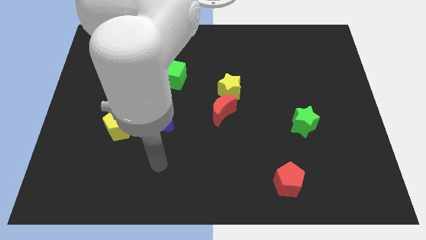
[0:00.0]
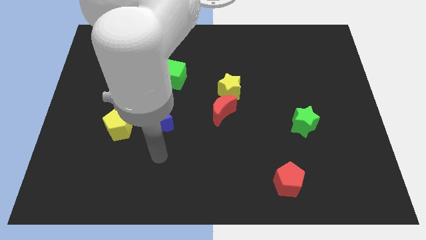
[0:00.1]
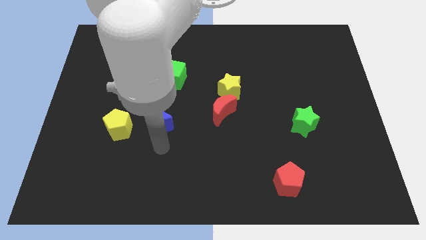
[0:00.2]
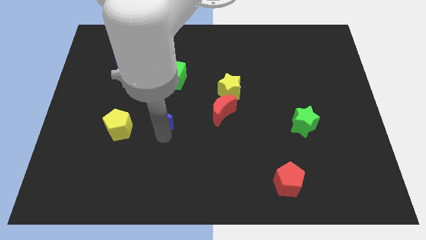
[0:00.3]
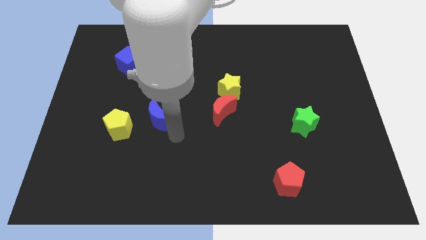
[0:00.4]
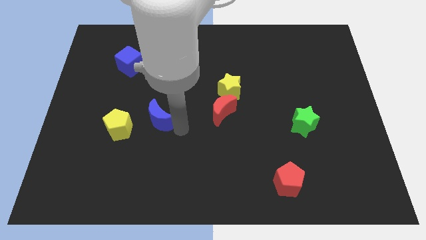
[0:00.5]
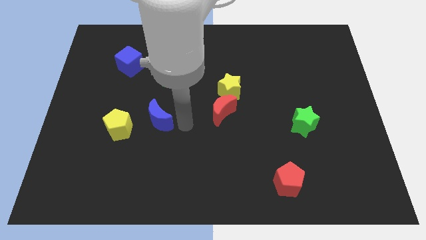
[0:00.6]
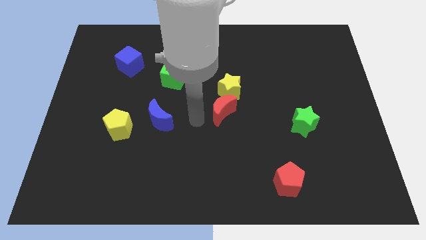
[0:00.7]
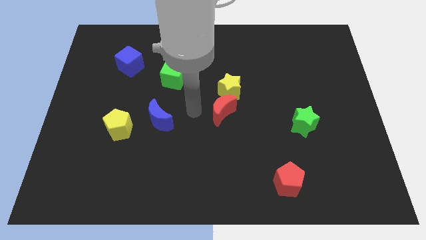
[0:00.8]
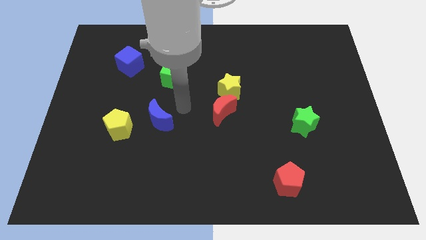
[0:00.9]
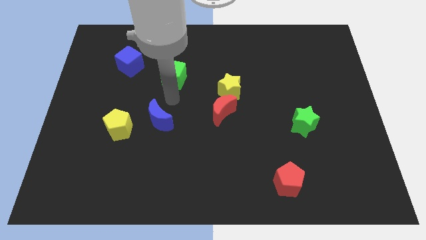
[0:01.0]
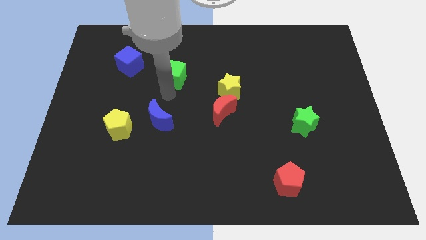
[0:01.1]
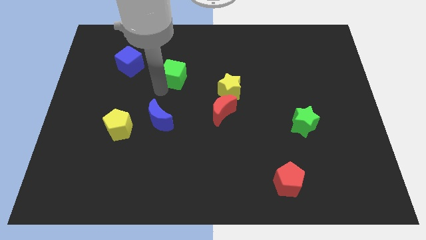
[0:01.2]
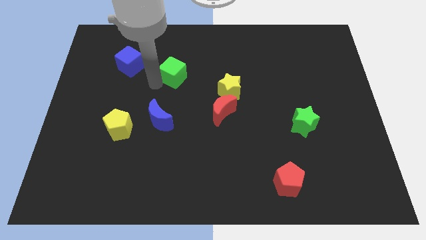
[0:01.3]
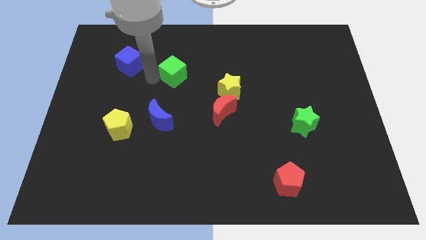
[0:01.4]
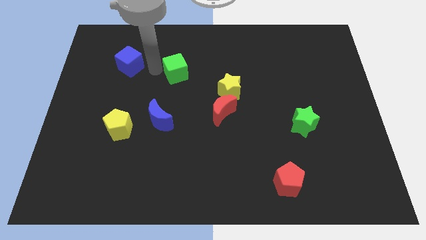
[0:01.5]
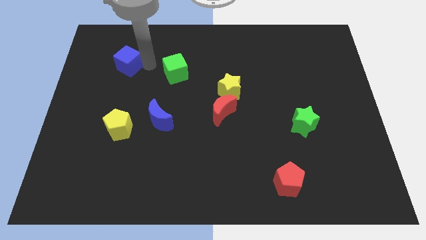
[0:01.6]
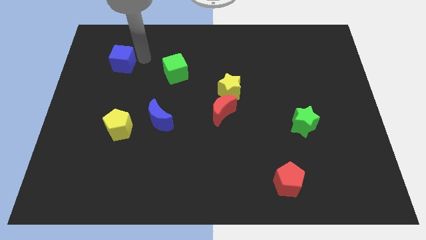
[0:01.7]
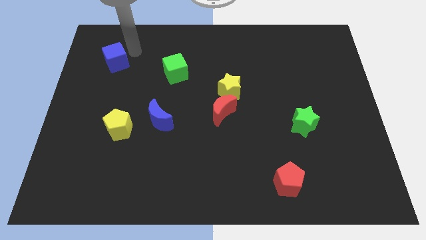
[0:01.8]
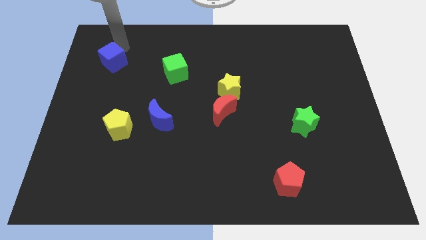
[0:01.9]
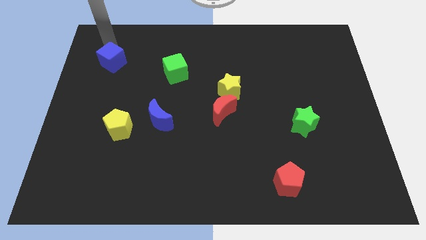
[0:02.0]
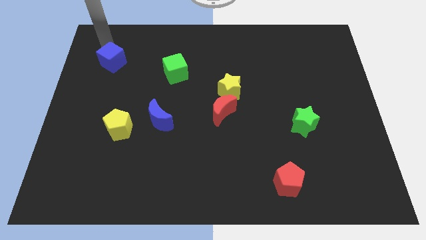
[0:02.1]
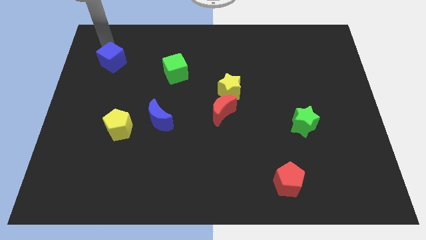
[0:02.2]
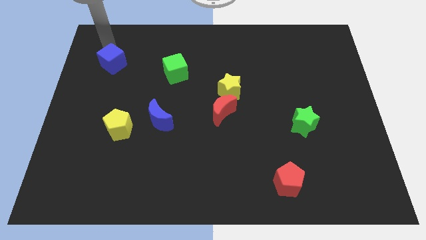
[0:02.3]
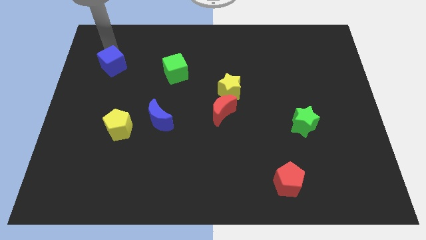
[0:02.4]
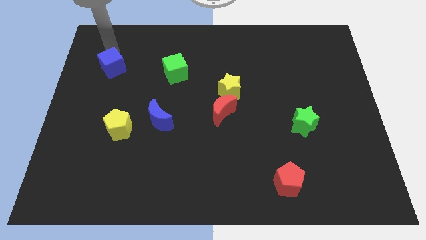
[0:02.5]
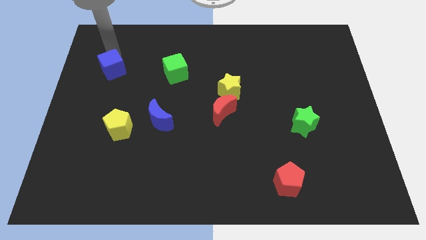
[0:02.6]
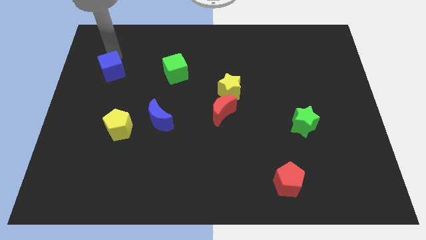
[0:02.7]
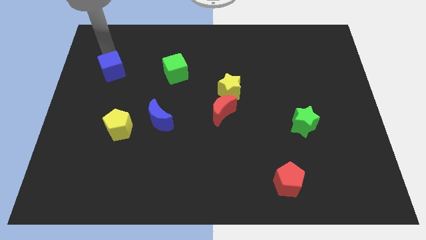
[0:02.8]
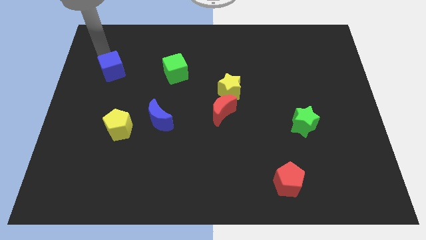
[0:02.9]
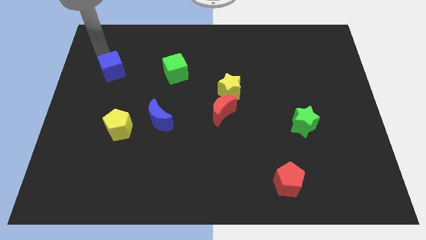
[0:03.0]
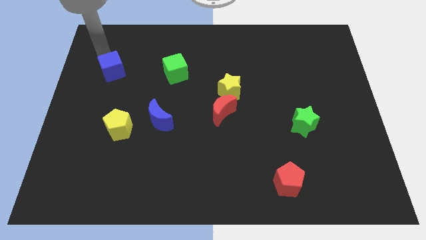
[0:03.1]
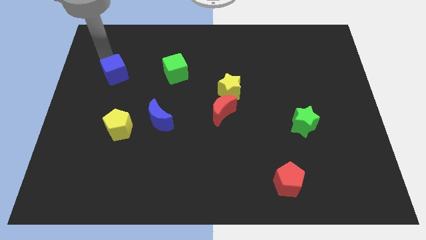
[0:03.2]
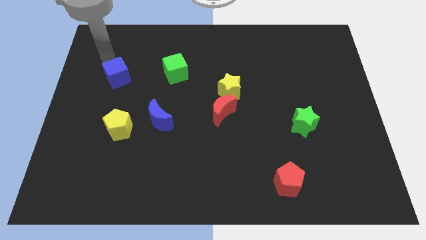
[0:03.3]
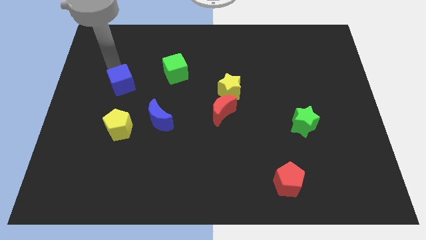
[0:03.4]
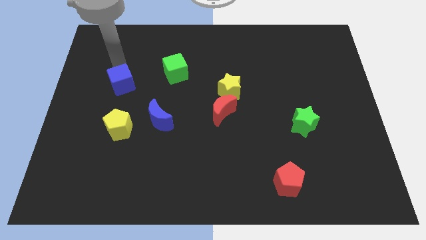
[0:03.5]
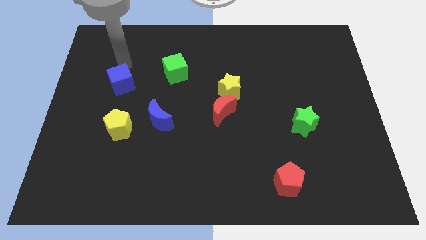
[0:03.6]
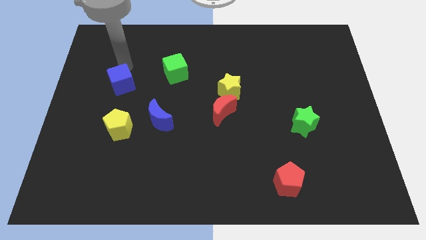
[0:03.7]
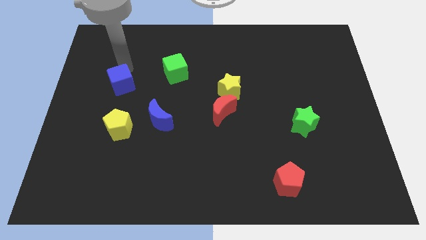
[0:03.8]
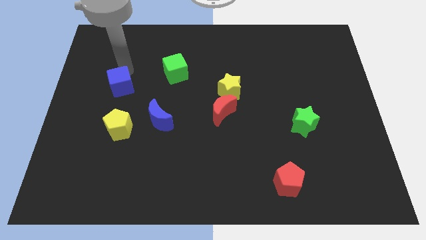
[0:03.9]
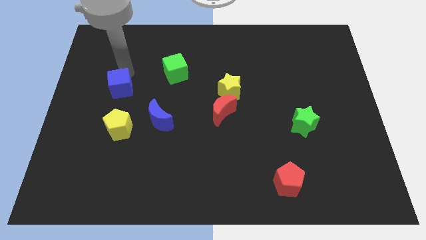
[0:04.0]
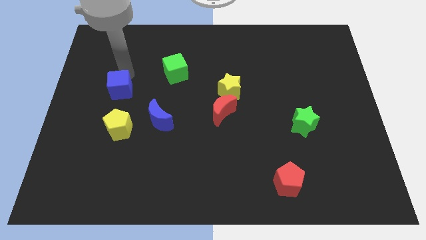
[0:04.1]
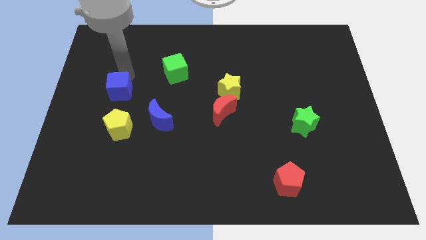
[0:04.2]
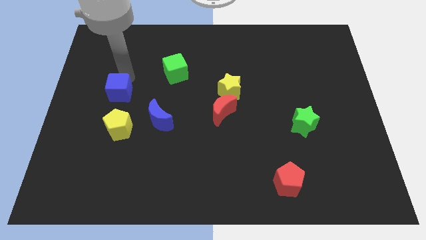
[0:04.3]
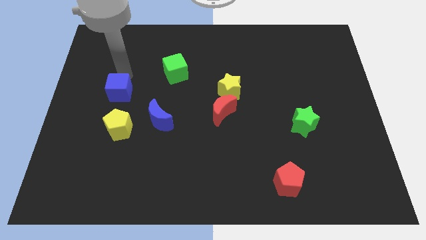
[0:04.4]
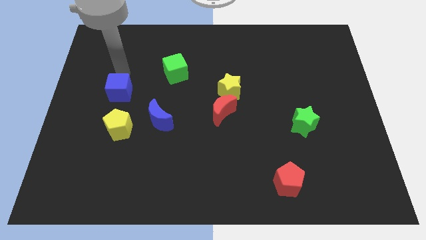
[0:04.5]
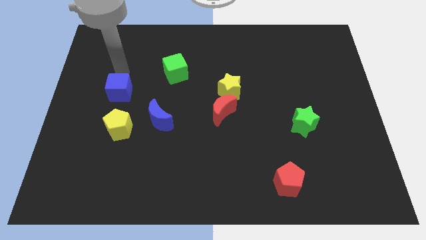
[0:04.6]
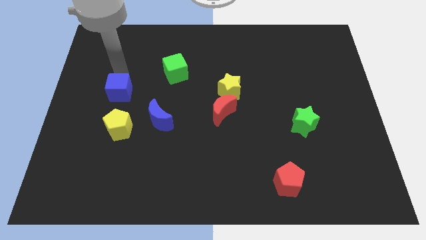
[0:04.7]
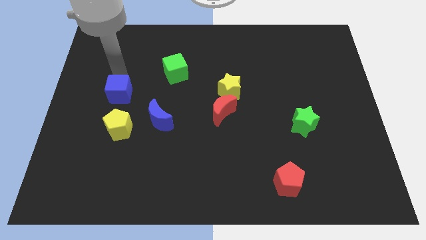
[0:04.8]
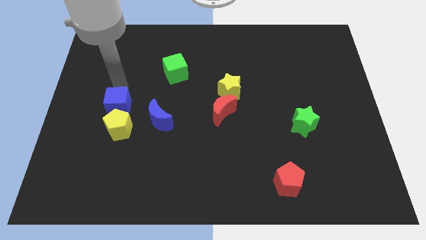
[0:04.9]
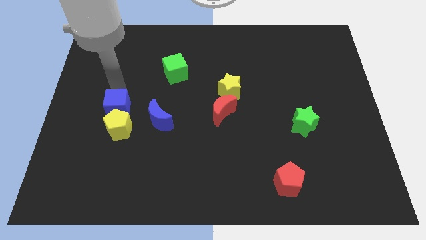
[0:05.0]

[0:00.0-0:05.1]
put the blue cube to the yellow pentagon

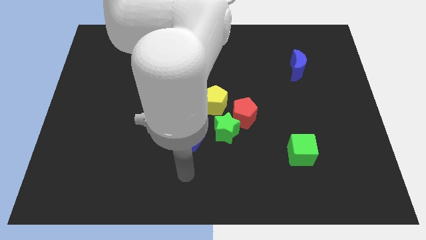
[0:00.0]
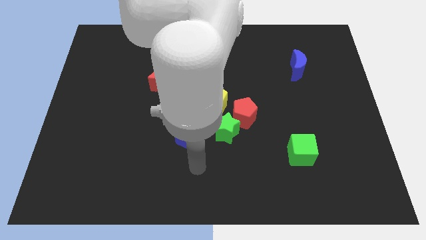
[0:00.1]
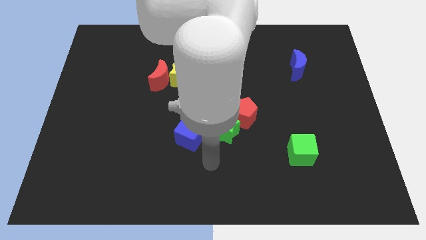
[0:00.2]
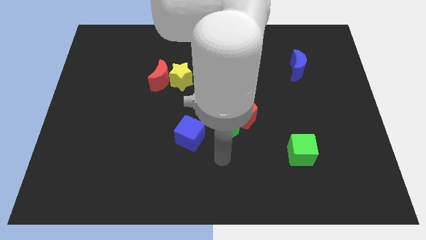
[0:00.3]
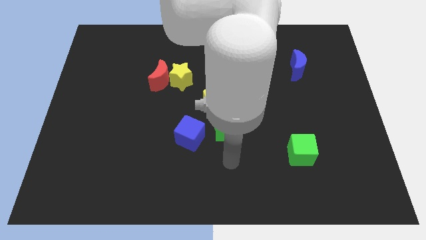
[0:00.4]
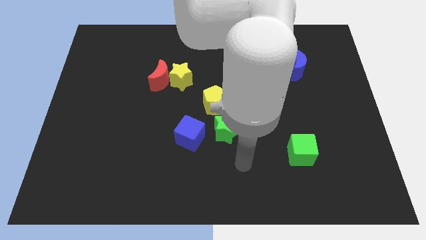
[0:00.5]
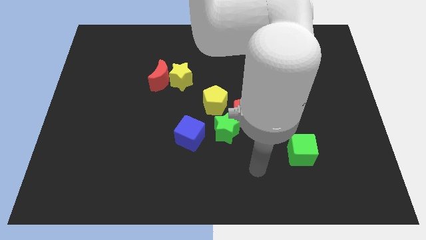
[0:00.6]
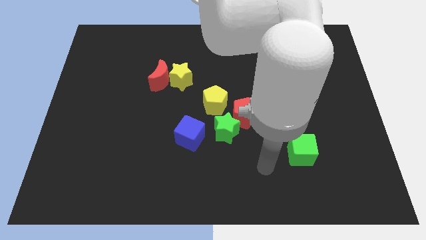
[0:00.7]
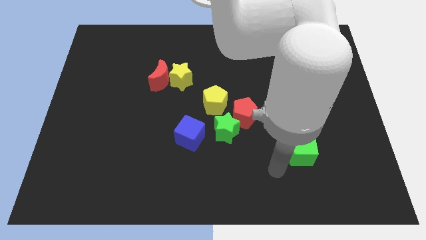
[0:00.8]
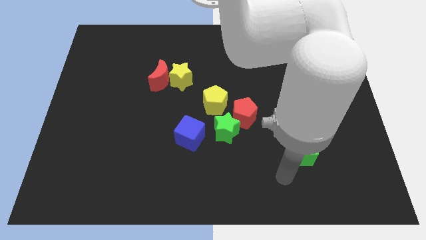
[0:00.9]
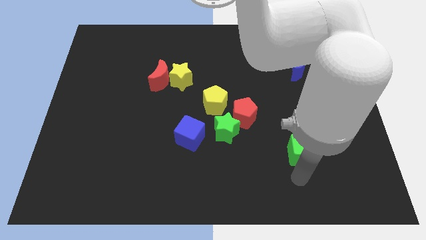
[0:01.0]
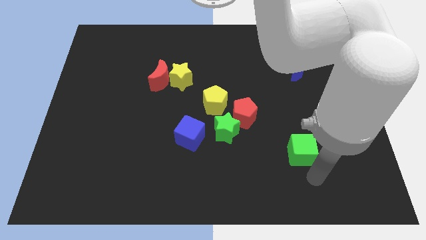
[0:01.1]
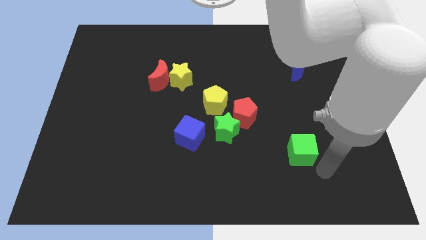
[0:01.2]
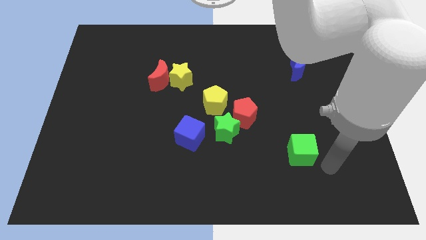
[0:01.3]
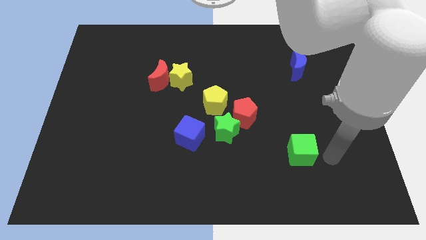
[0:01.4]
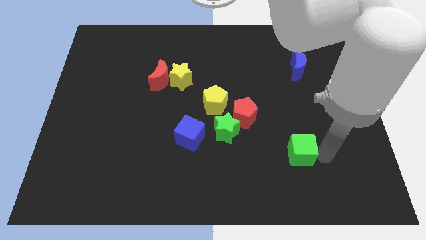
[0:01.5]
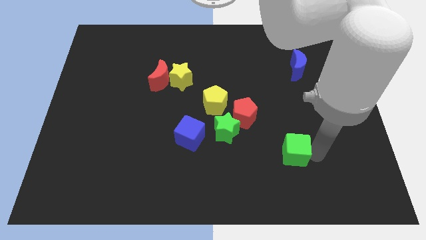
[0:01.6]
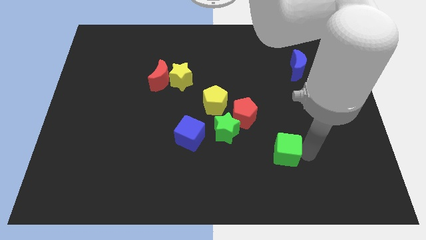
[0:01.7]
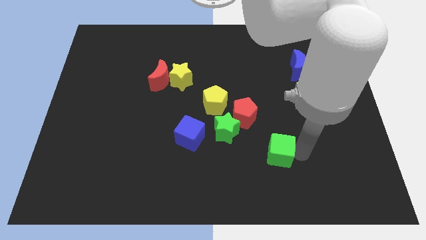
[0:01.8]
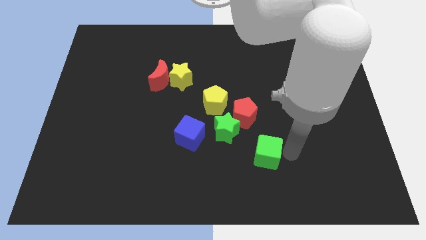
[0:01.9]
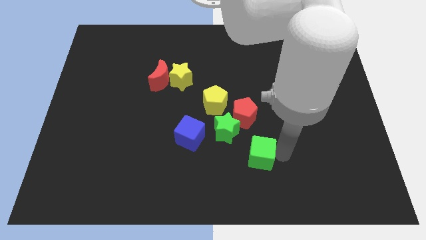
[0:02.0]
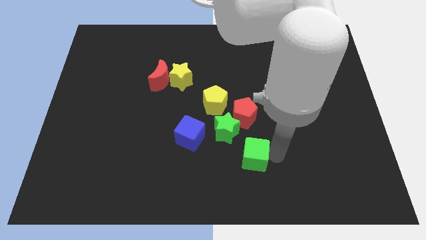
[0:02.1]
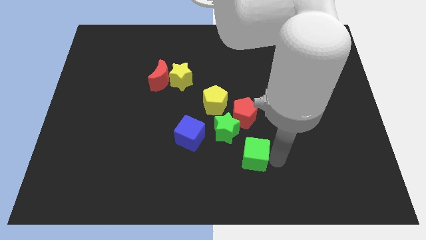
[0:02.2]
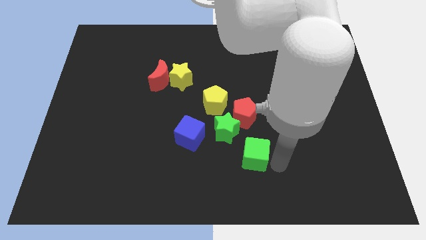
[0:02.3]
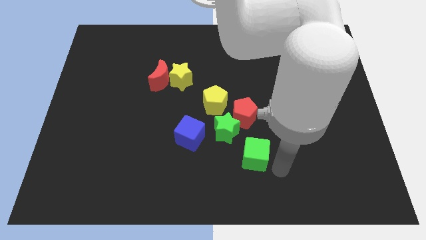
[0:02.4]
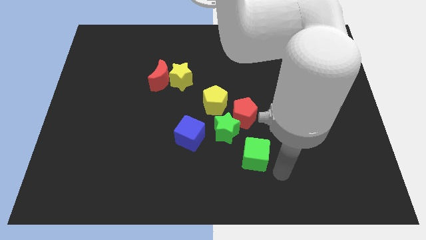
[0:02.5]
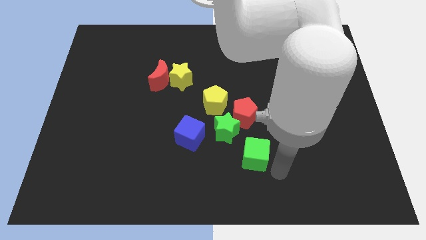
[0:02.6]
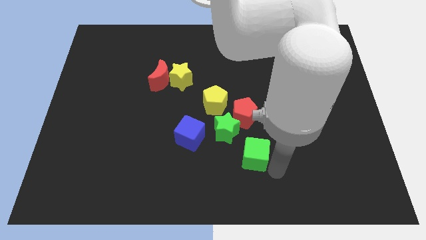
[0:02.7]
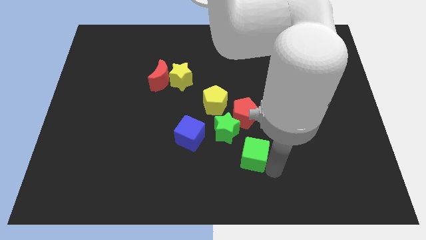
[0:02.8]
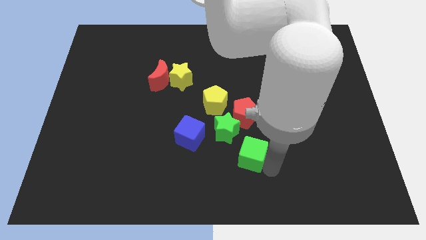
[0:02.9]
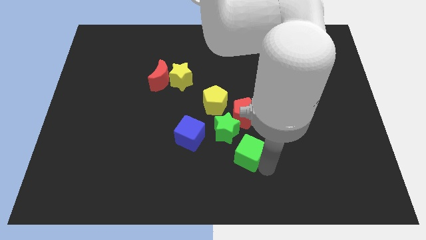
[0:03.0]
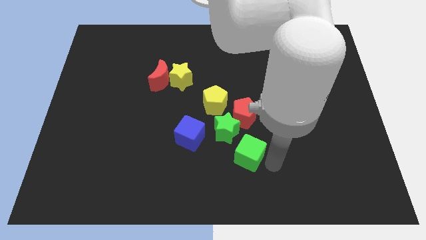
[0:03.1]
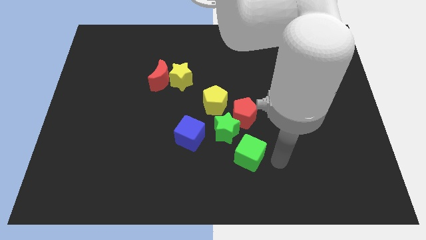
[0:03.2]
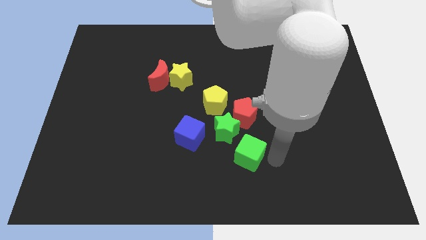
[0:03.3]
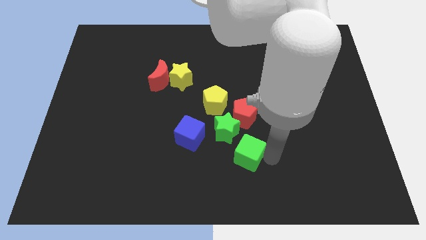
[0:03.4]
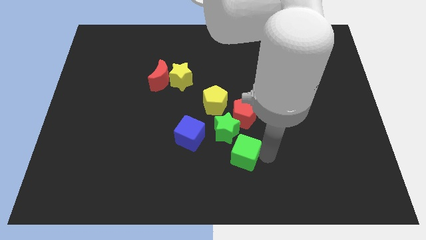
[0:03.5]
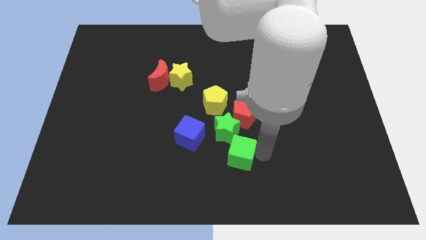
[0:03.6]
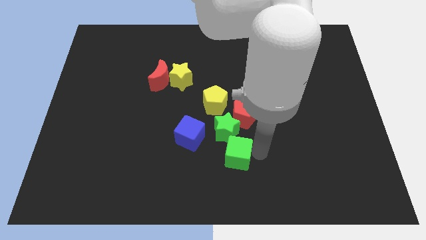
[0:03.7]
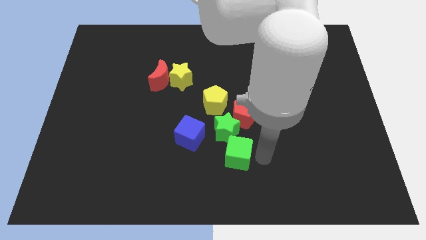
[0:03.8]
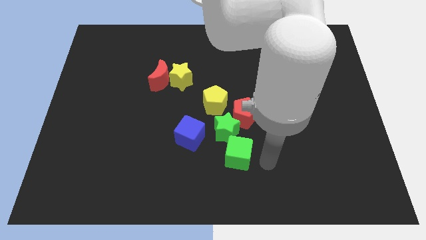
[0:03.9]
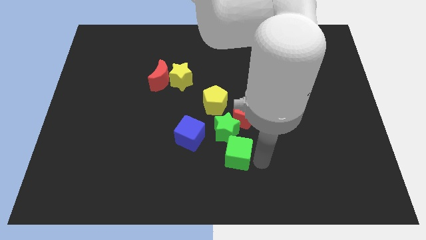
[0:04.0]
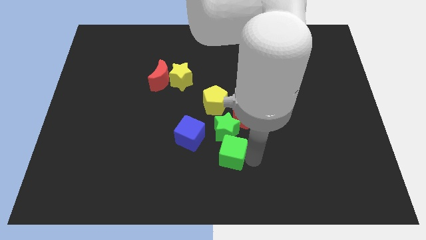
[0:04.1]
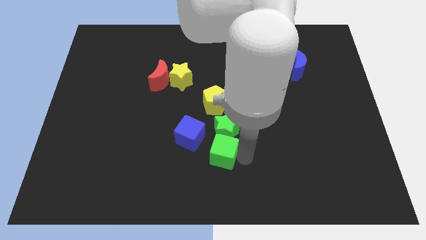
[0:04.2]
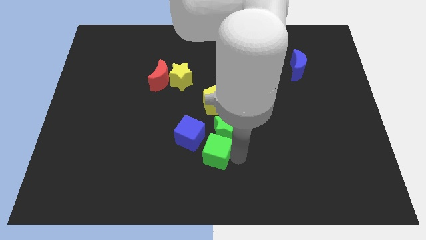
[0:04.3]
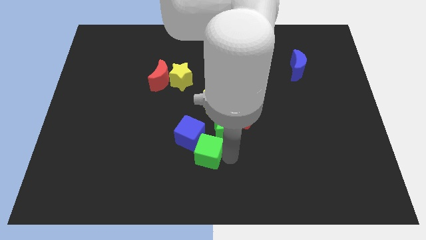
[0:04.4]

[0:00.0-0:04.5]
push the green cube to the blue cube
